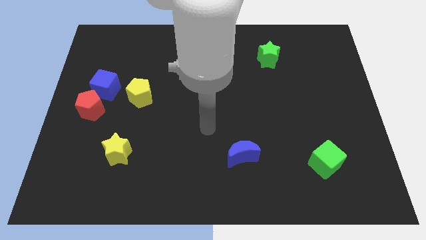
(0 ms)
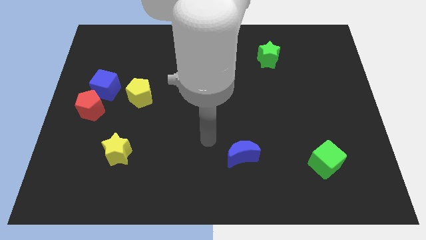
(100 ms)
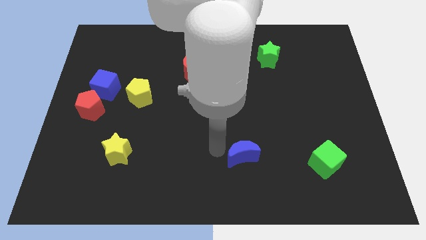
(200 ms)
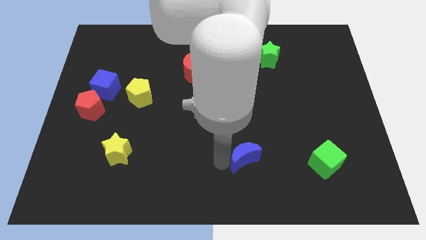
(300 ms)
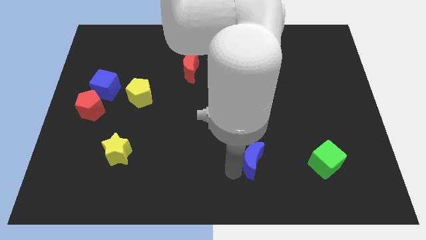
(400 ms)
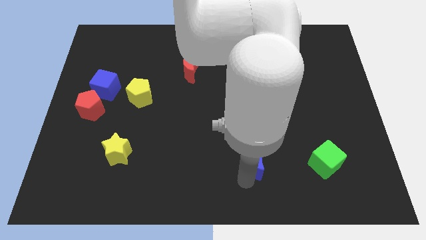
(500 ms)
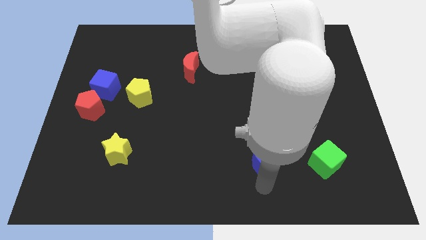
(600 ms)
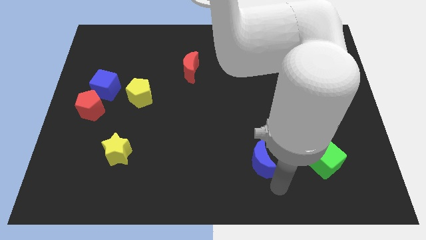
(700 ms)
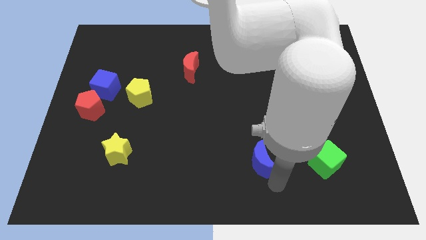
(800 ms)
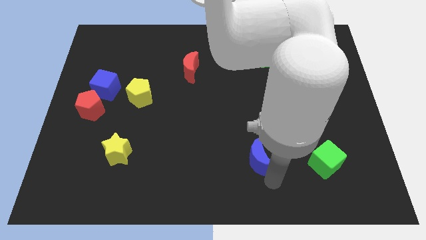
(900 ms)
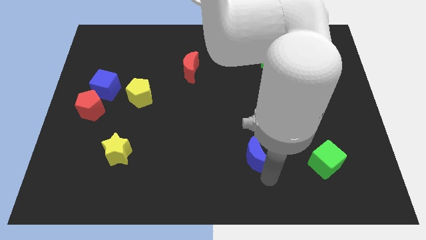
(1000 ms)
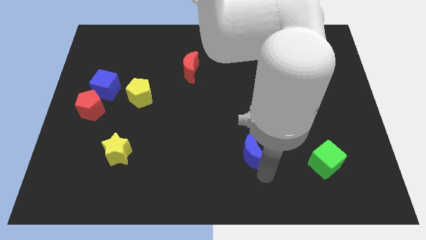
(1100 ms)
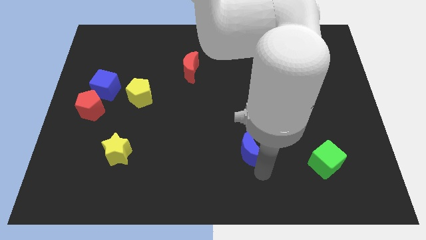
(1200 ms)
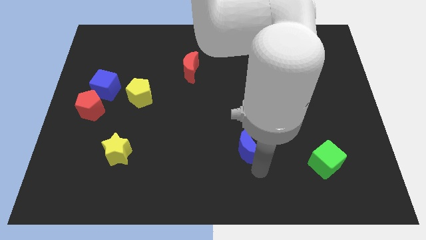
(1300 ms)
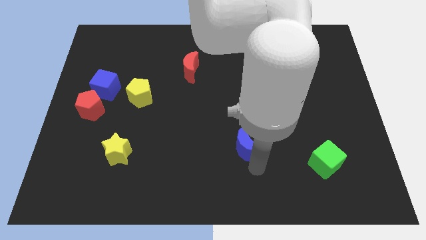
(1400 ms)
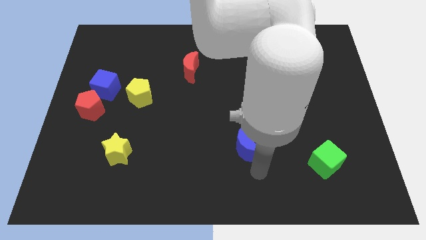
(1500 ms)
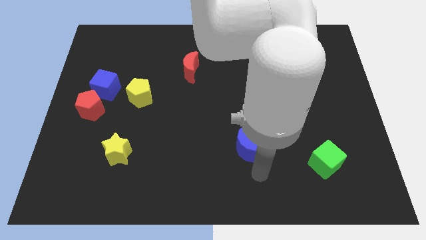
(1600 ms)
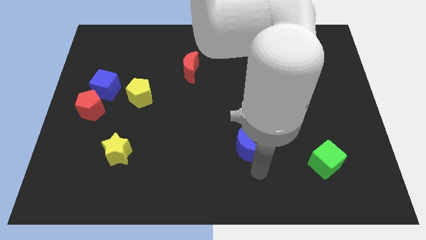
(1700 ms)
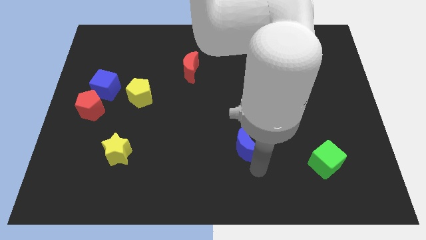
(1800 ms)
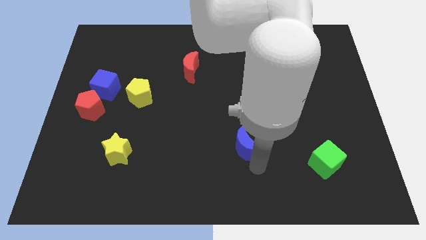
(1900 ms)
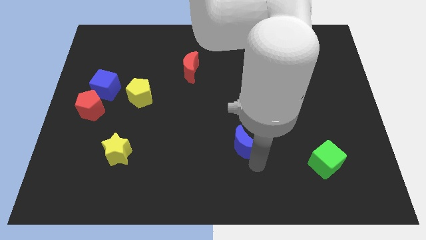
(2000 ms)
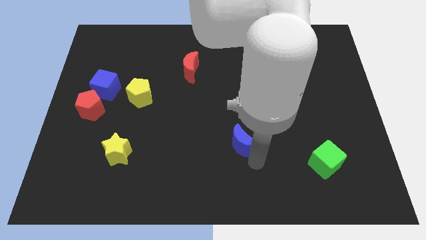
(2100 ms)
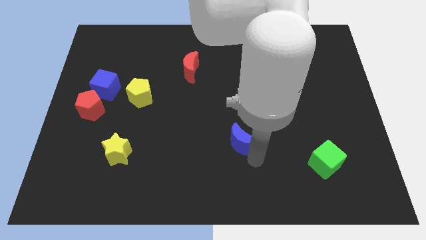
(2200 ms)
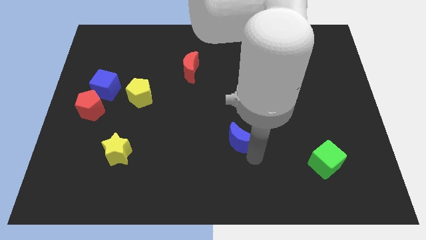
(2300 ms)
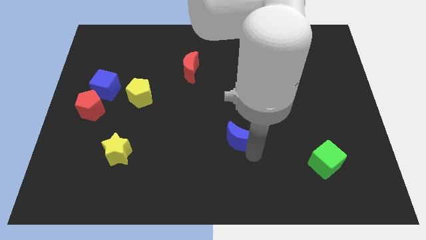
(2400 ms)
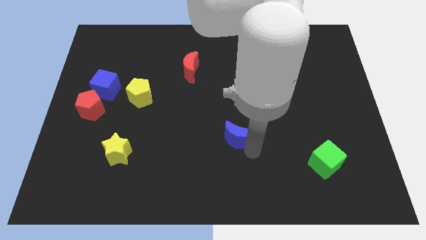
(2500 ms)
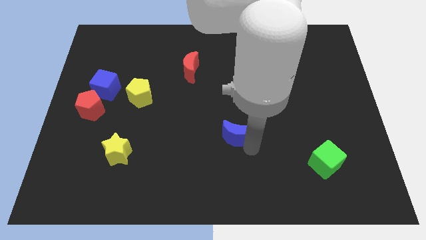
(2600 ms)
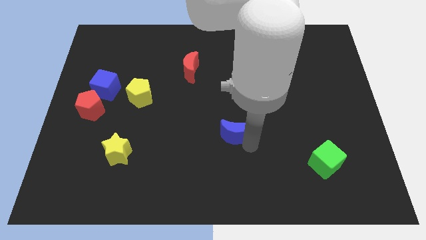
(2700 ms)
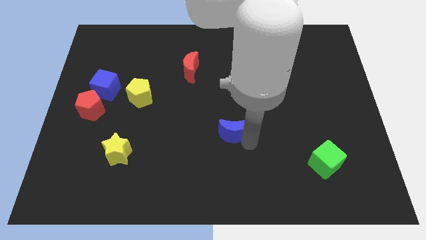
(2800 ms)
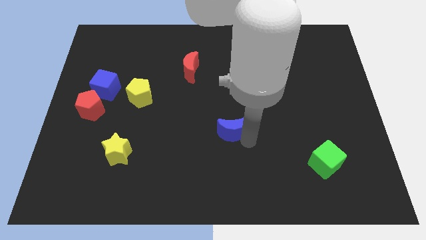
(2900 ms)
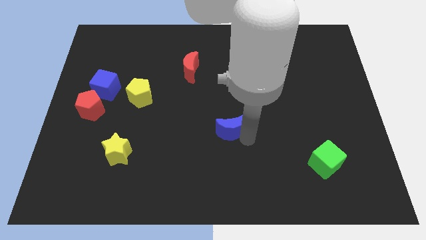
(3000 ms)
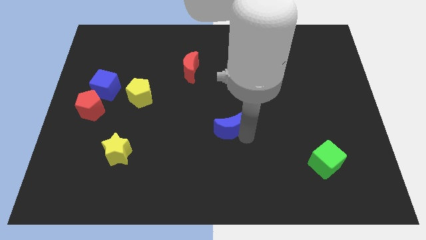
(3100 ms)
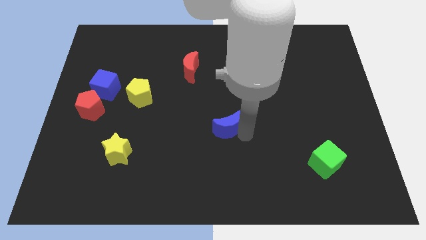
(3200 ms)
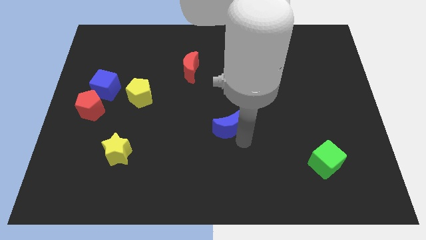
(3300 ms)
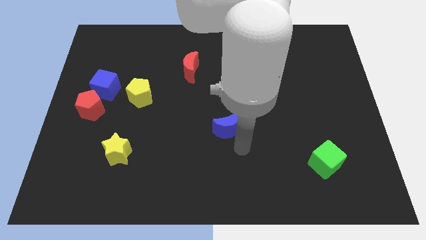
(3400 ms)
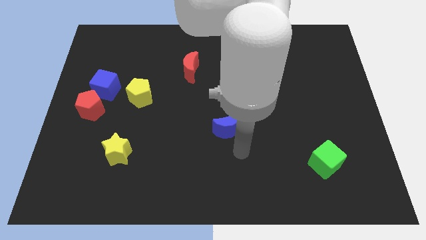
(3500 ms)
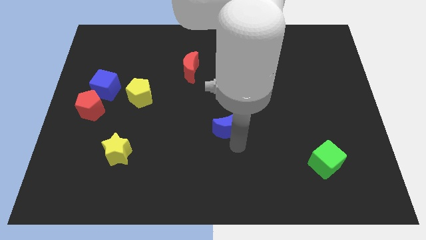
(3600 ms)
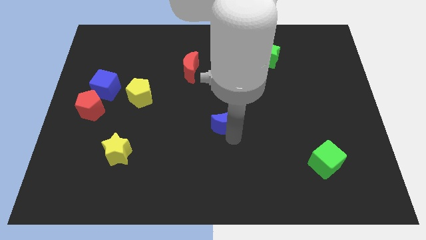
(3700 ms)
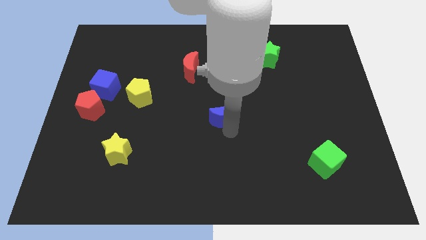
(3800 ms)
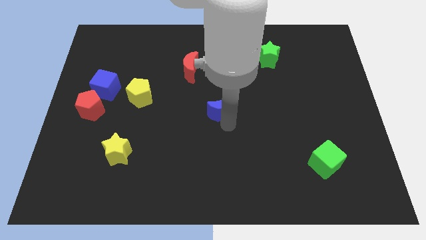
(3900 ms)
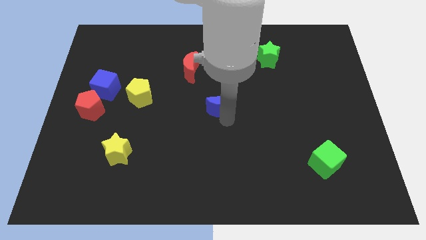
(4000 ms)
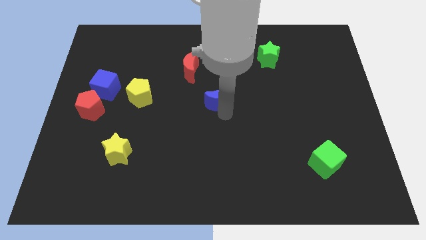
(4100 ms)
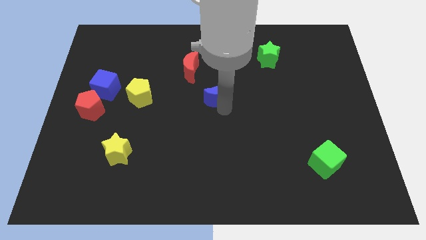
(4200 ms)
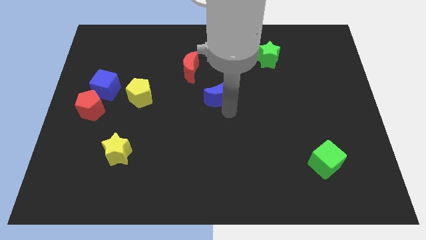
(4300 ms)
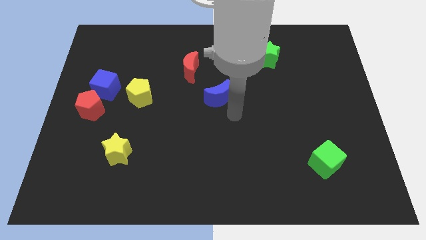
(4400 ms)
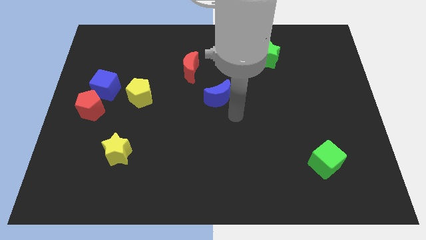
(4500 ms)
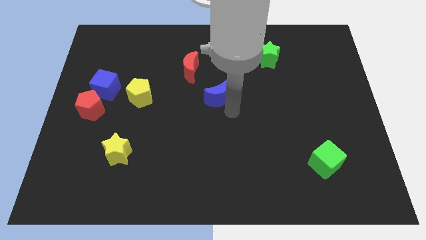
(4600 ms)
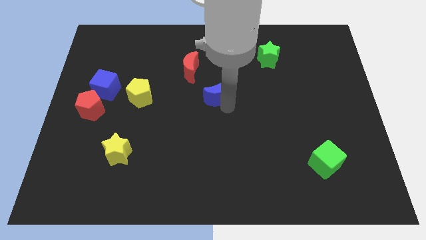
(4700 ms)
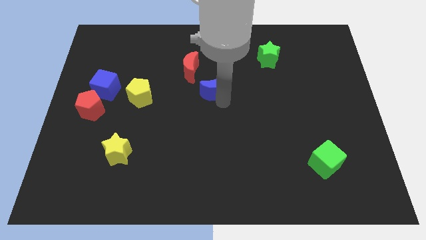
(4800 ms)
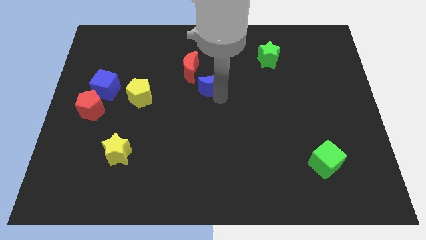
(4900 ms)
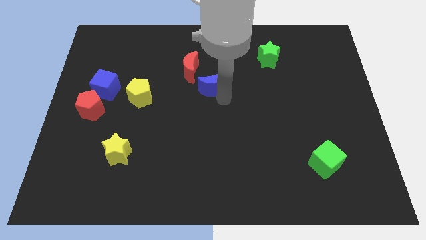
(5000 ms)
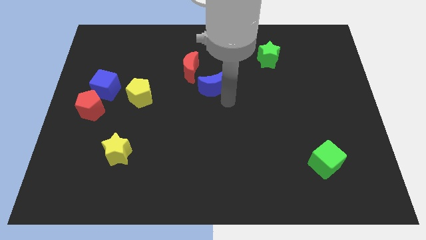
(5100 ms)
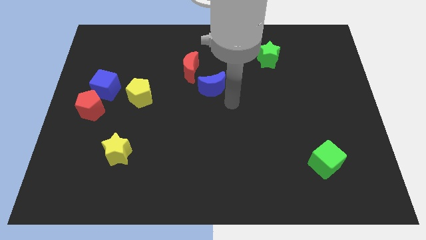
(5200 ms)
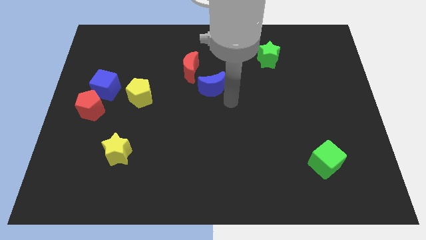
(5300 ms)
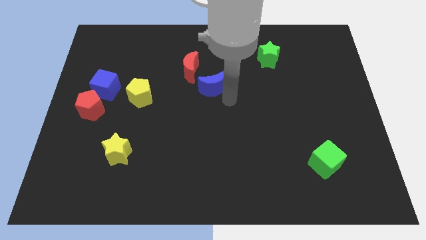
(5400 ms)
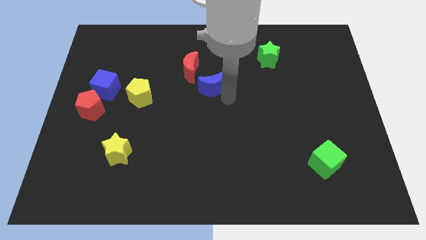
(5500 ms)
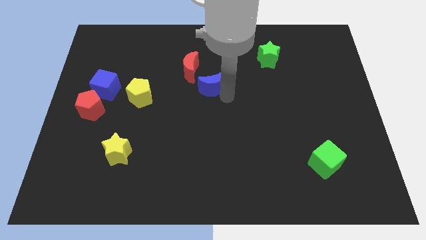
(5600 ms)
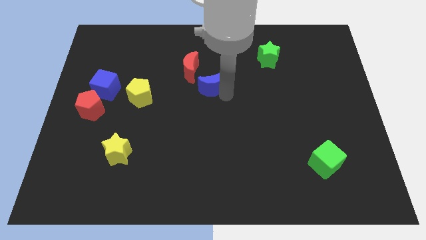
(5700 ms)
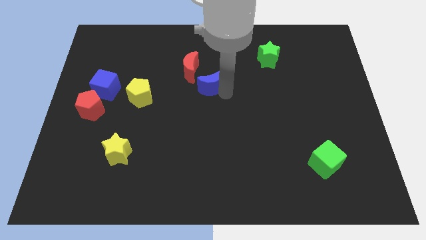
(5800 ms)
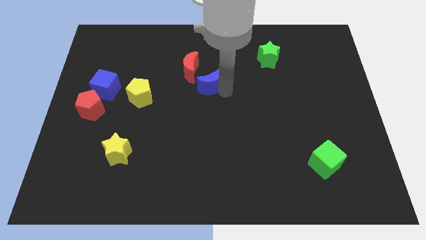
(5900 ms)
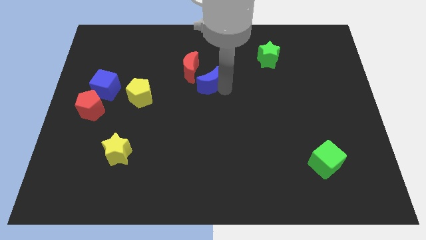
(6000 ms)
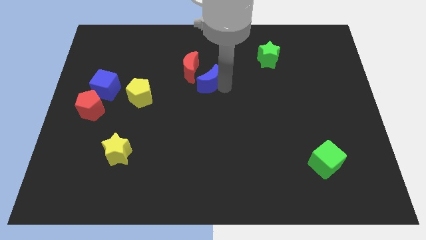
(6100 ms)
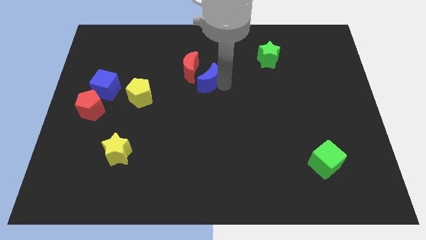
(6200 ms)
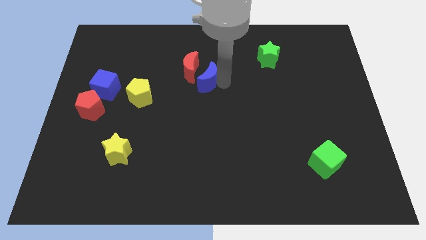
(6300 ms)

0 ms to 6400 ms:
move the blue moon close to the red moon

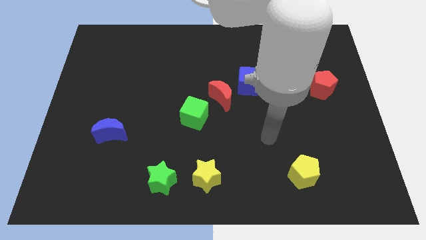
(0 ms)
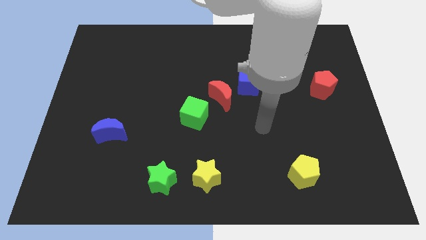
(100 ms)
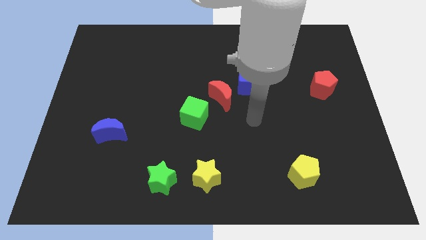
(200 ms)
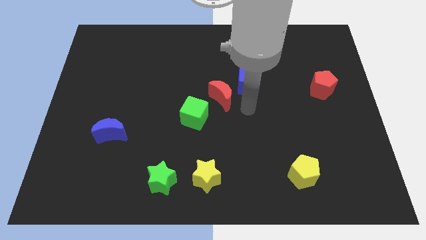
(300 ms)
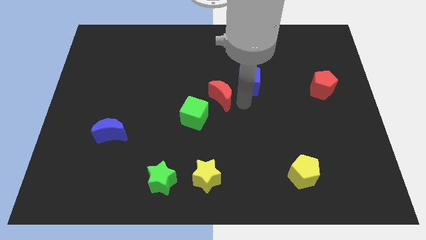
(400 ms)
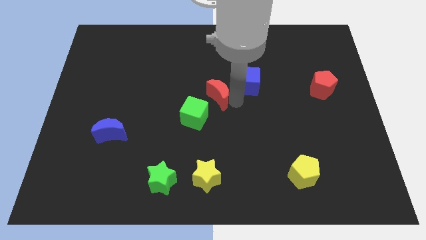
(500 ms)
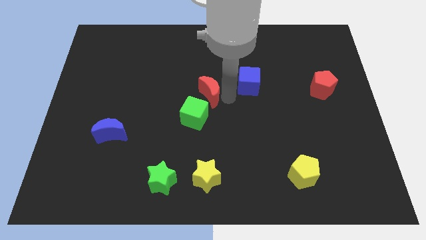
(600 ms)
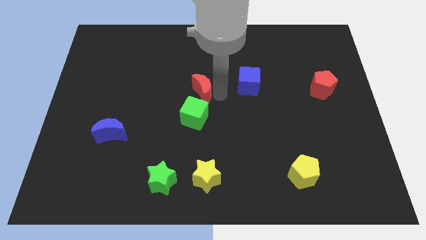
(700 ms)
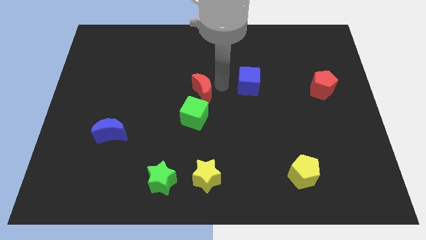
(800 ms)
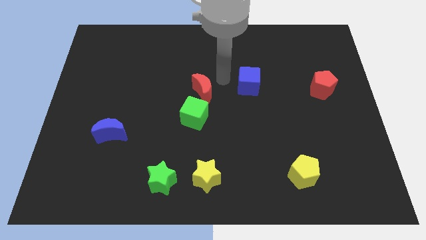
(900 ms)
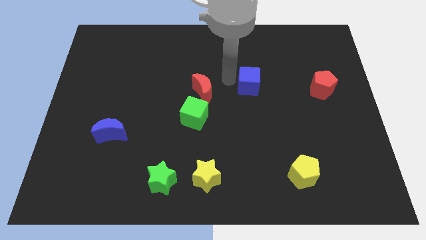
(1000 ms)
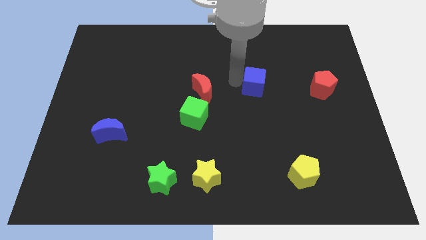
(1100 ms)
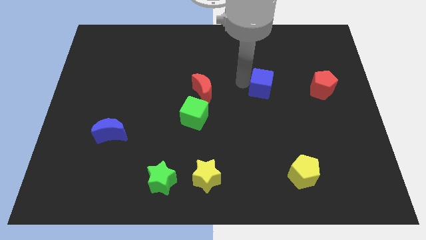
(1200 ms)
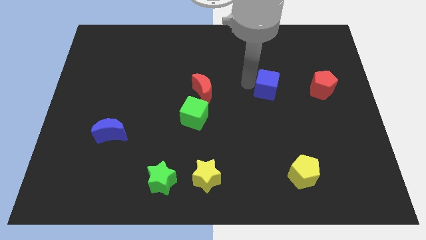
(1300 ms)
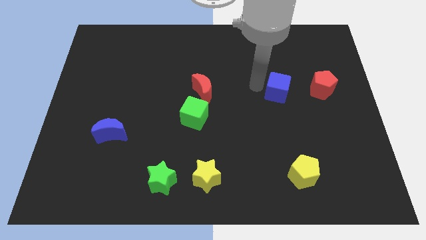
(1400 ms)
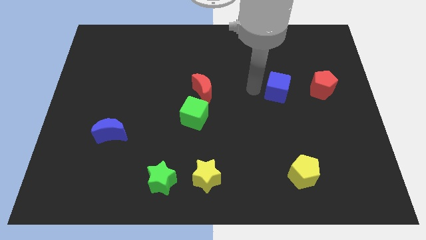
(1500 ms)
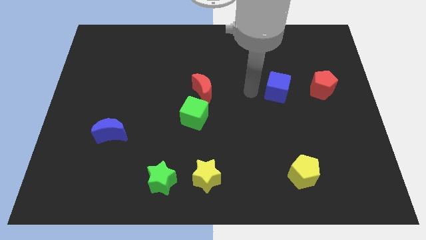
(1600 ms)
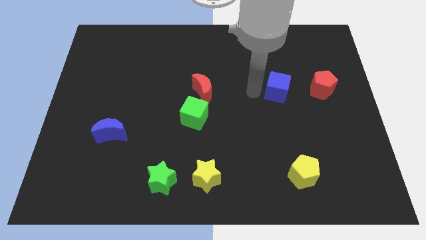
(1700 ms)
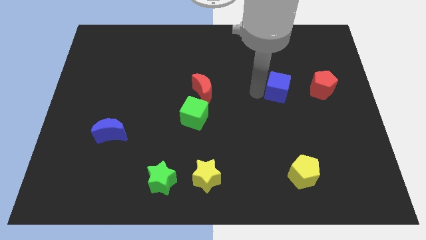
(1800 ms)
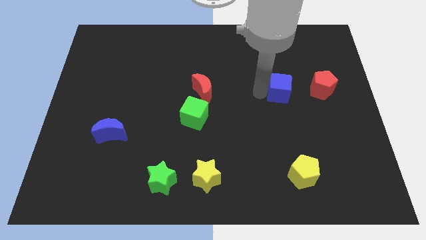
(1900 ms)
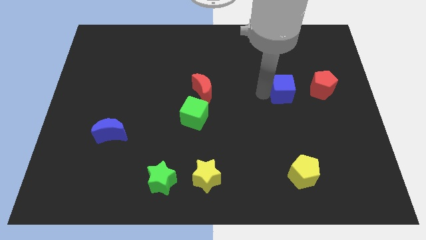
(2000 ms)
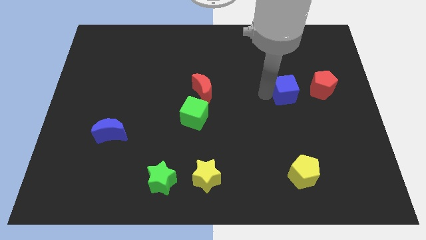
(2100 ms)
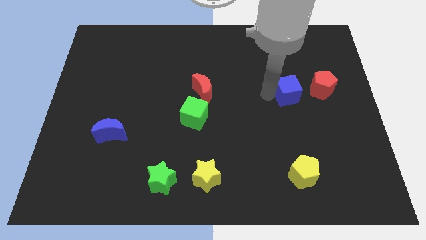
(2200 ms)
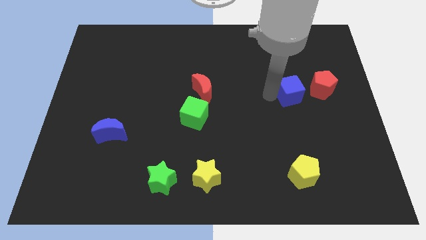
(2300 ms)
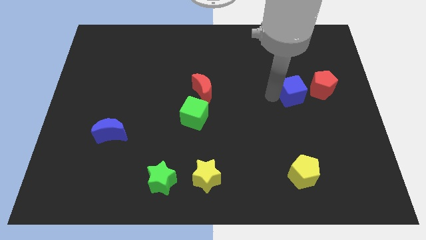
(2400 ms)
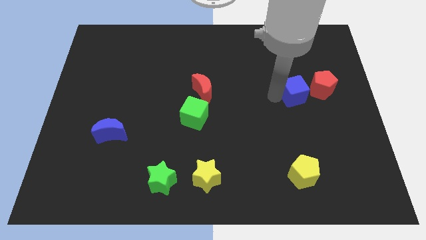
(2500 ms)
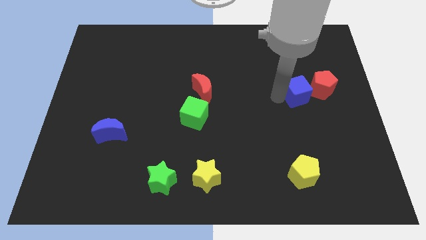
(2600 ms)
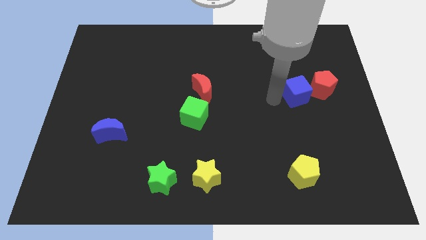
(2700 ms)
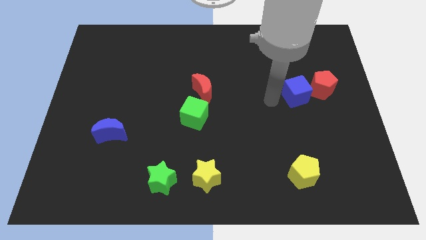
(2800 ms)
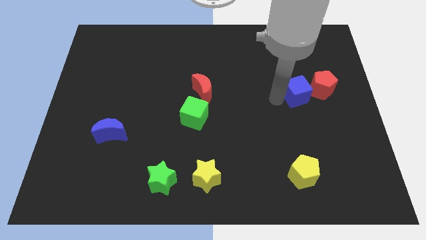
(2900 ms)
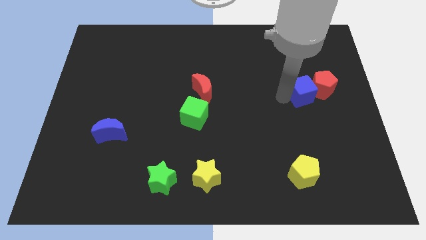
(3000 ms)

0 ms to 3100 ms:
move the blue cube next to the red pentagon
